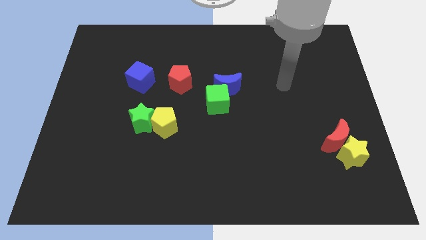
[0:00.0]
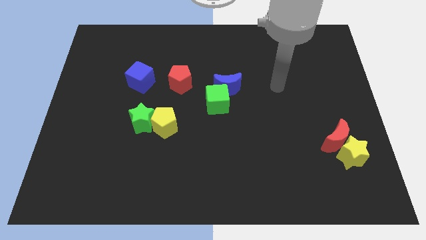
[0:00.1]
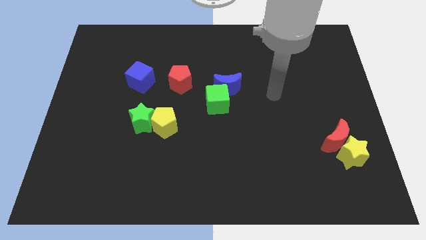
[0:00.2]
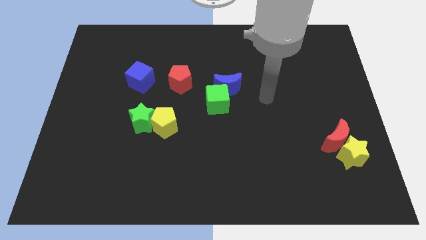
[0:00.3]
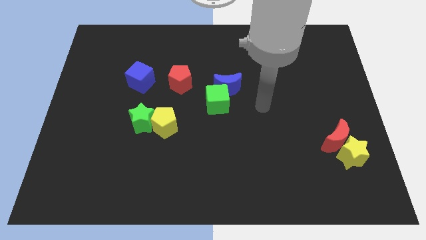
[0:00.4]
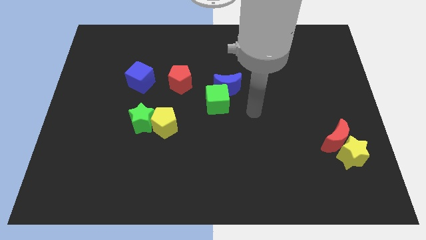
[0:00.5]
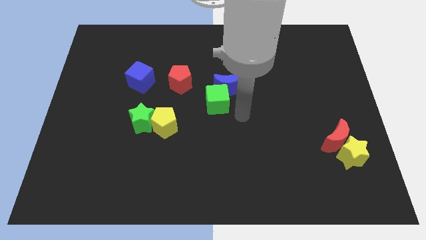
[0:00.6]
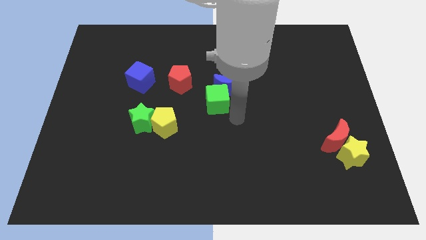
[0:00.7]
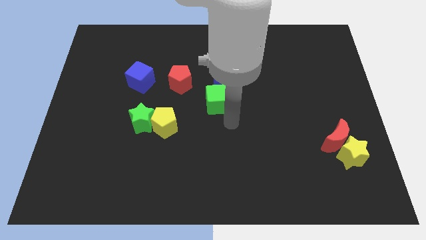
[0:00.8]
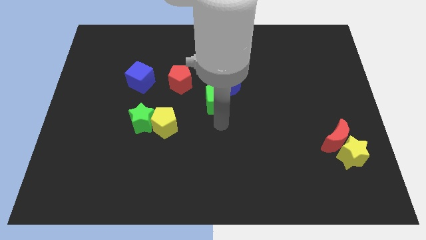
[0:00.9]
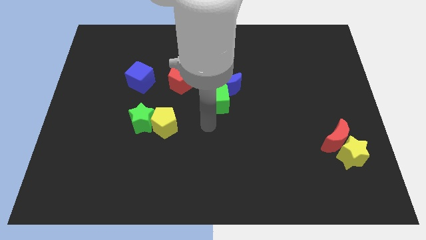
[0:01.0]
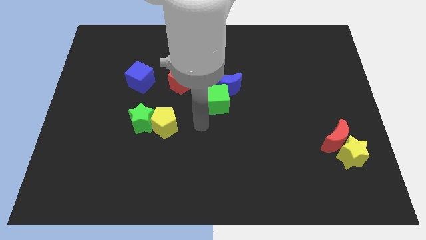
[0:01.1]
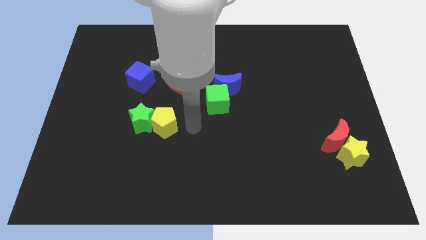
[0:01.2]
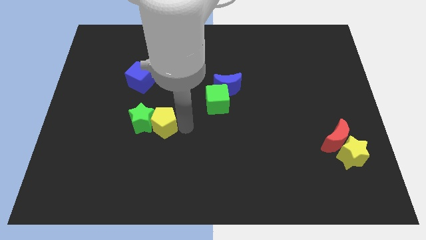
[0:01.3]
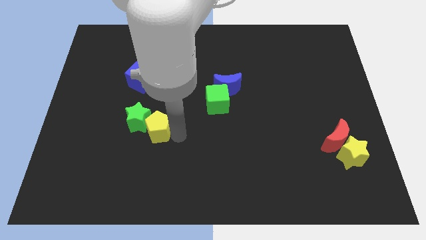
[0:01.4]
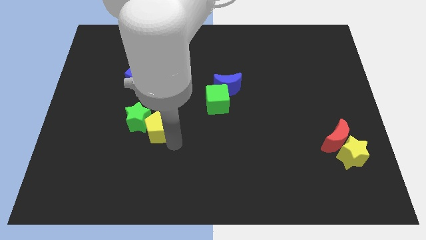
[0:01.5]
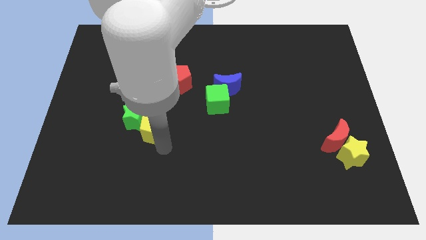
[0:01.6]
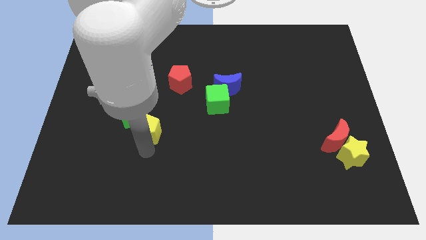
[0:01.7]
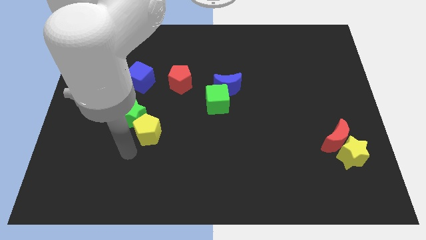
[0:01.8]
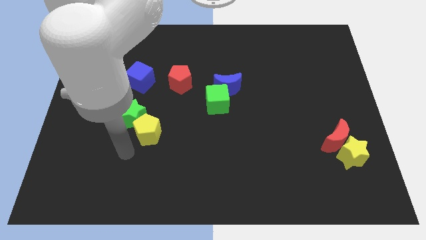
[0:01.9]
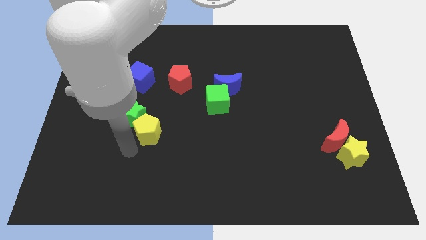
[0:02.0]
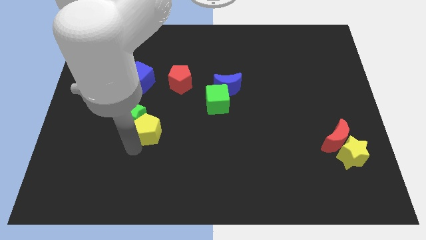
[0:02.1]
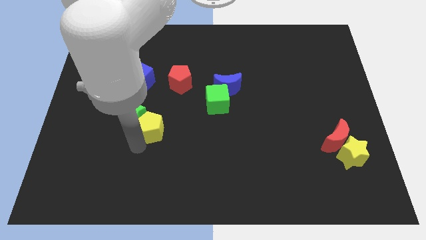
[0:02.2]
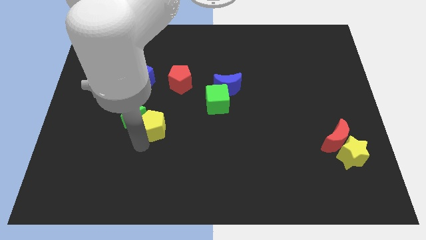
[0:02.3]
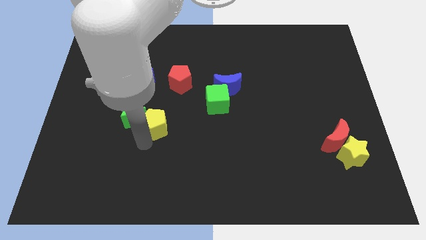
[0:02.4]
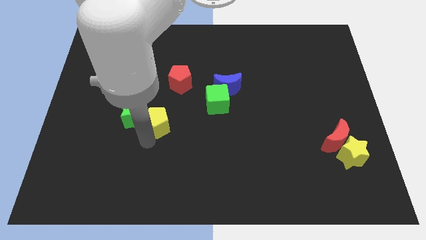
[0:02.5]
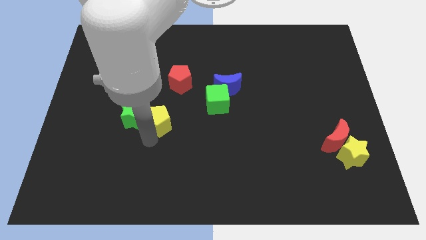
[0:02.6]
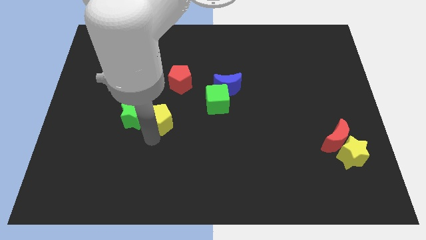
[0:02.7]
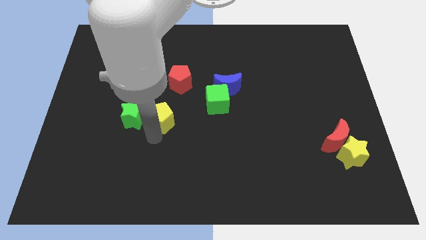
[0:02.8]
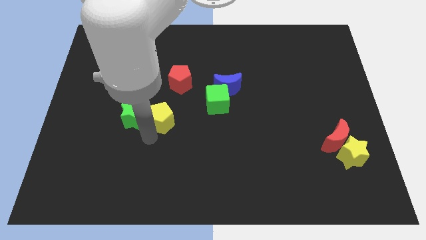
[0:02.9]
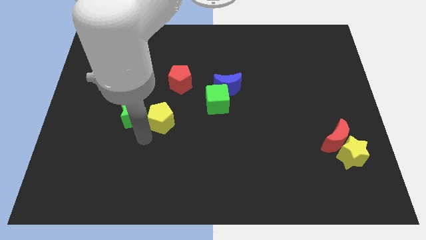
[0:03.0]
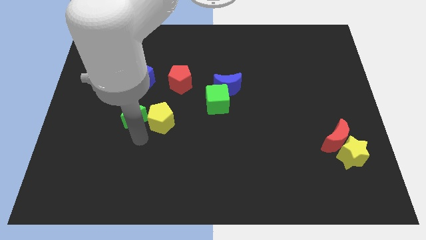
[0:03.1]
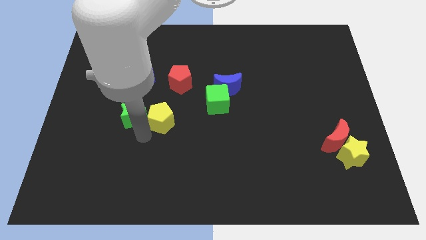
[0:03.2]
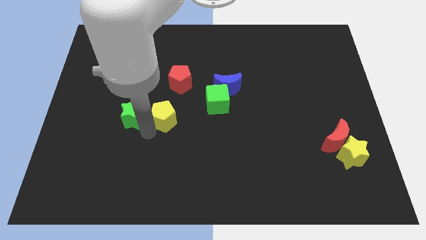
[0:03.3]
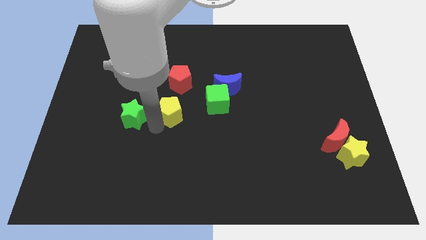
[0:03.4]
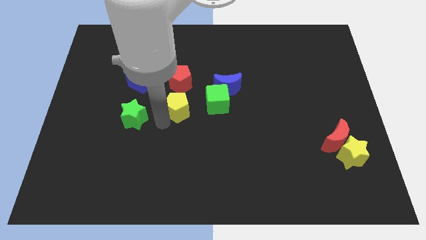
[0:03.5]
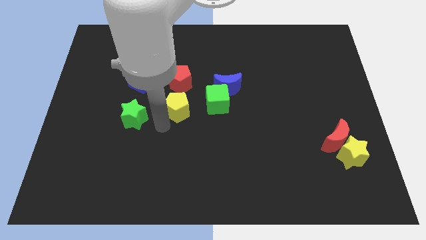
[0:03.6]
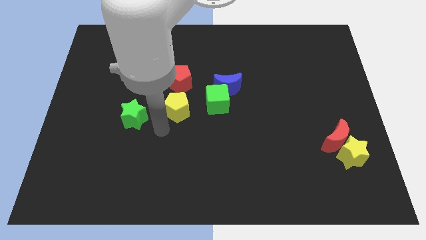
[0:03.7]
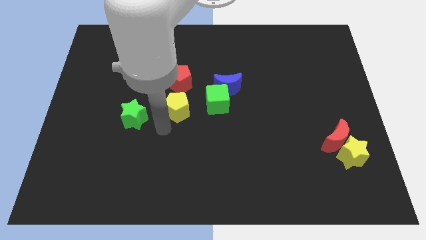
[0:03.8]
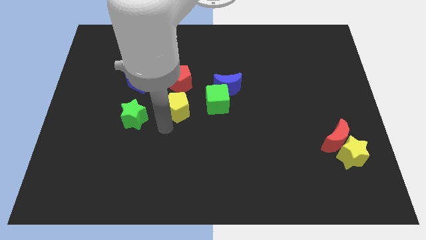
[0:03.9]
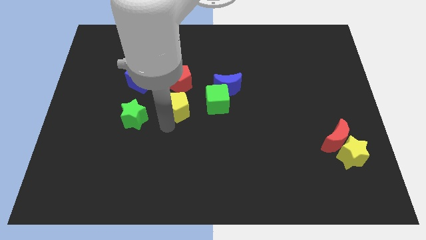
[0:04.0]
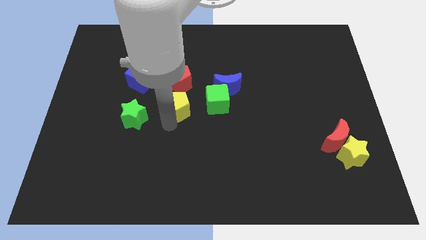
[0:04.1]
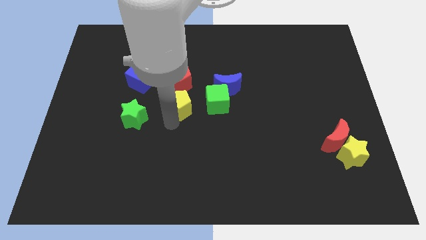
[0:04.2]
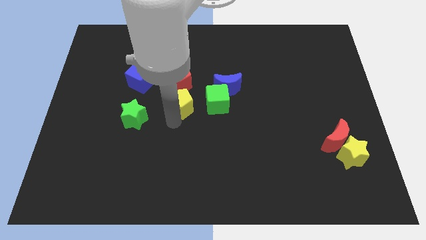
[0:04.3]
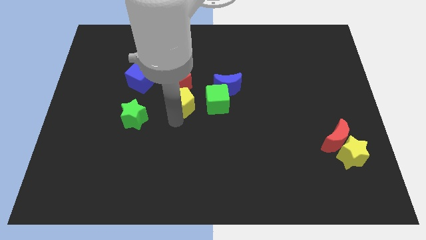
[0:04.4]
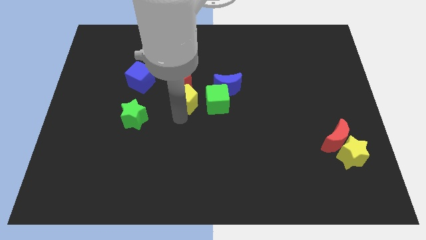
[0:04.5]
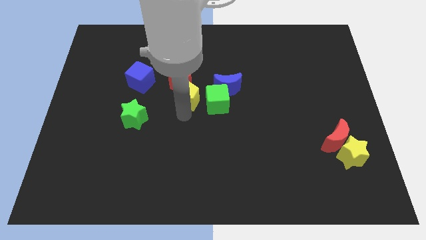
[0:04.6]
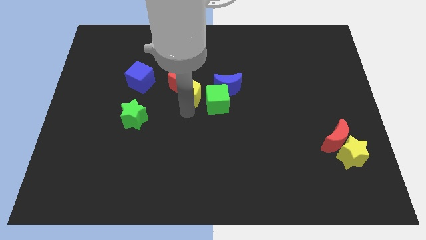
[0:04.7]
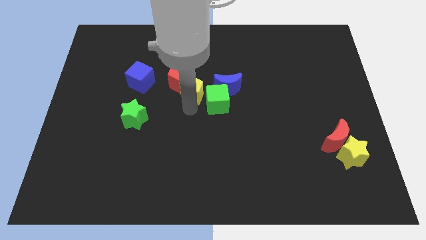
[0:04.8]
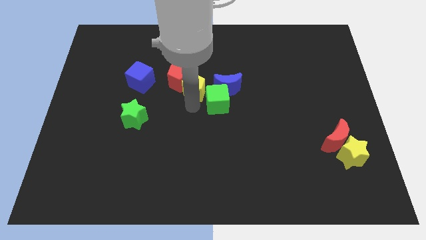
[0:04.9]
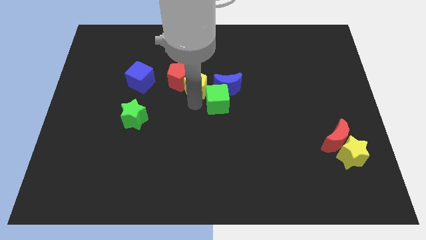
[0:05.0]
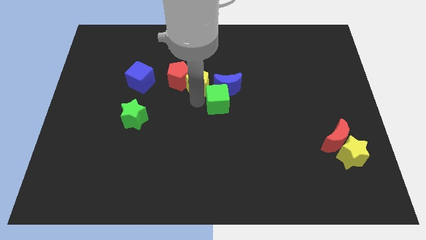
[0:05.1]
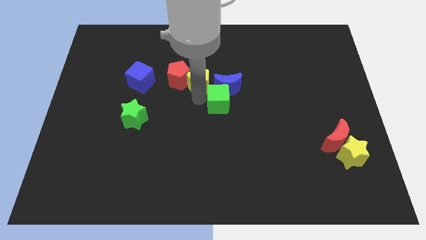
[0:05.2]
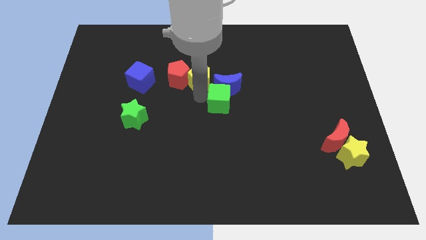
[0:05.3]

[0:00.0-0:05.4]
move the yellow pentagon to the top right of the red pentagon

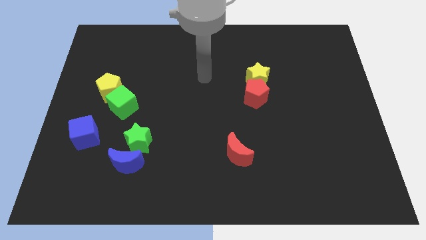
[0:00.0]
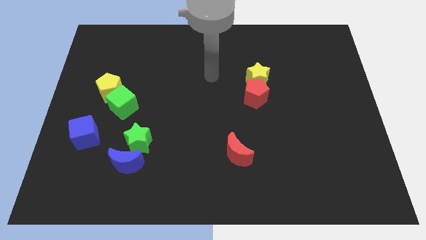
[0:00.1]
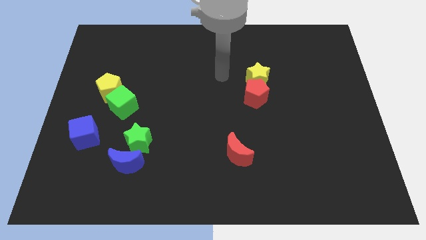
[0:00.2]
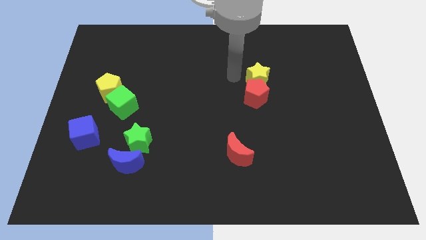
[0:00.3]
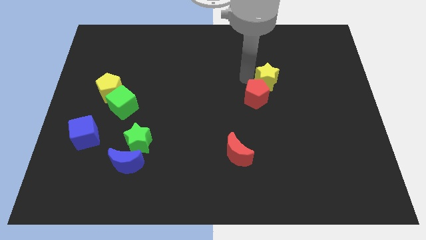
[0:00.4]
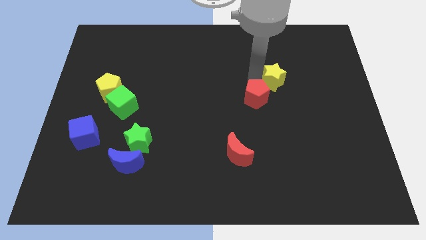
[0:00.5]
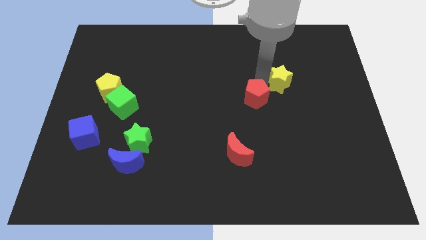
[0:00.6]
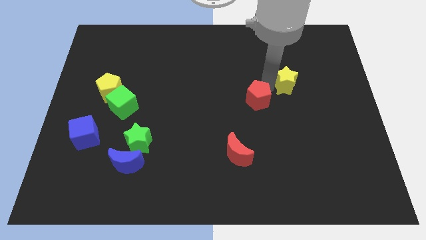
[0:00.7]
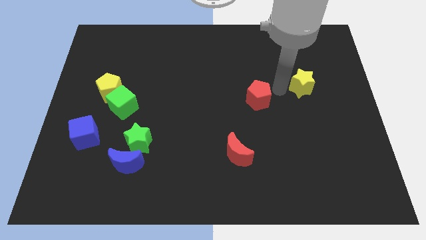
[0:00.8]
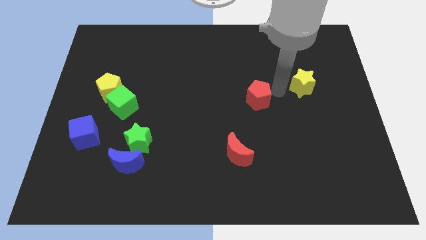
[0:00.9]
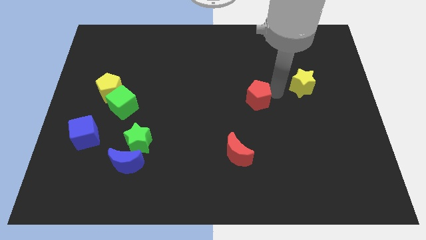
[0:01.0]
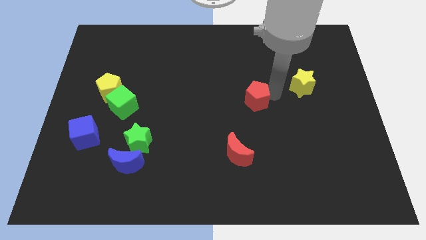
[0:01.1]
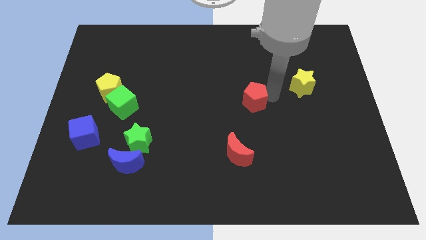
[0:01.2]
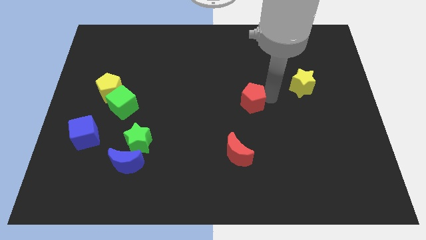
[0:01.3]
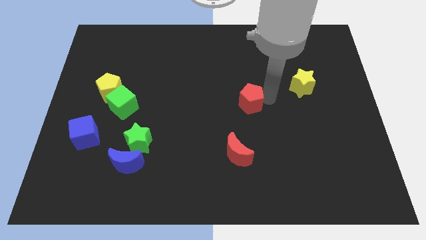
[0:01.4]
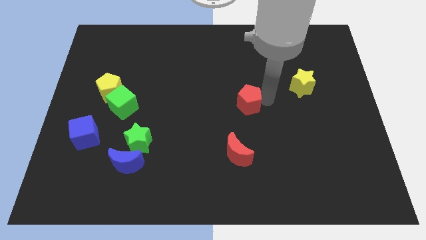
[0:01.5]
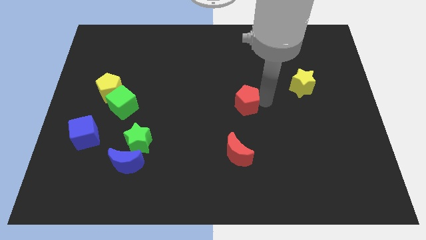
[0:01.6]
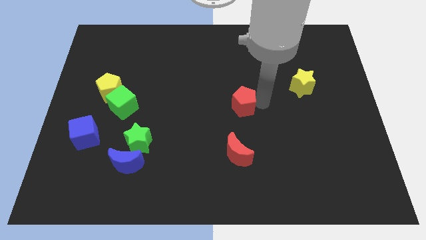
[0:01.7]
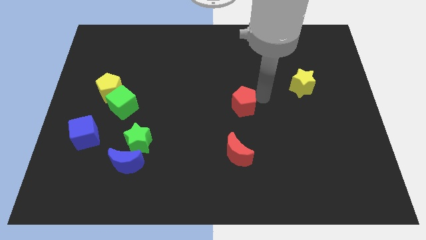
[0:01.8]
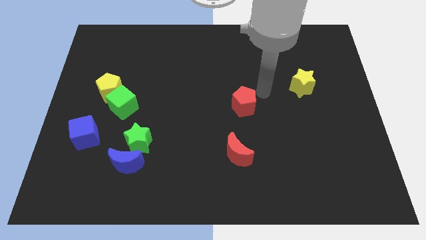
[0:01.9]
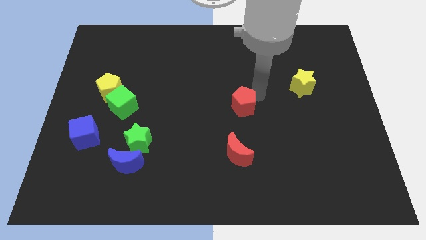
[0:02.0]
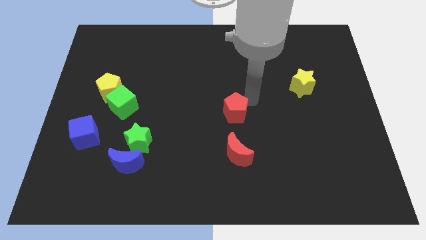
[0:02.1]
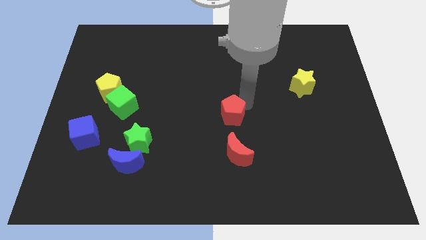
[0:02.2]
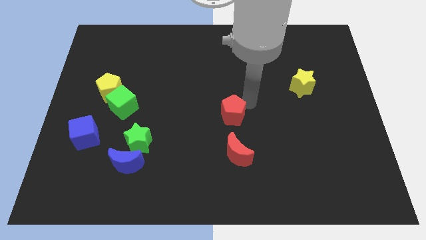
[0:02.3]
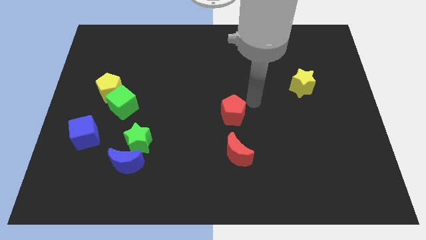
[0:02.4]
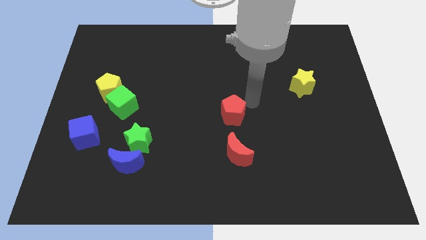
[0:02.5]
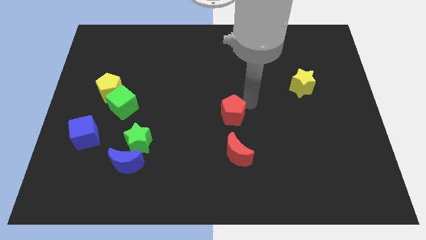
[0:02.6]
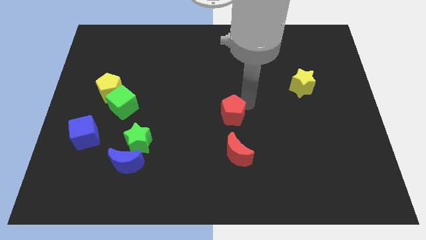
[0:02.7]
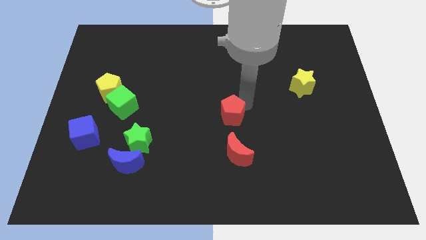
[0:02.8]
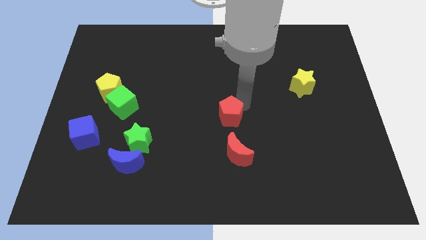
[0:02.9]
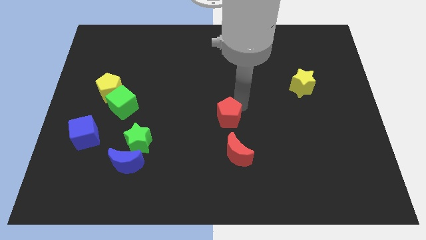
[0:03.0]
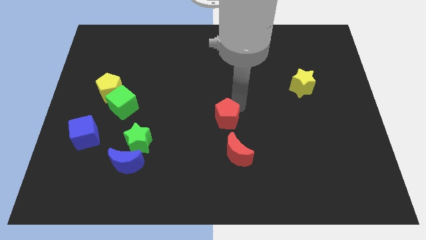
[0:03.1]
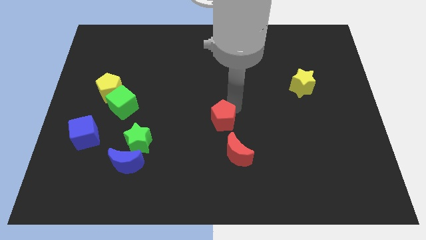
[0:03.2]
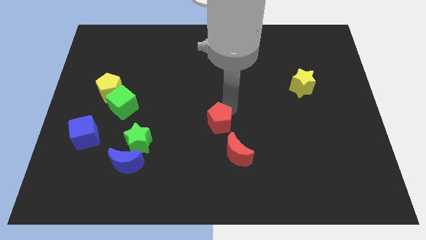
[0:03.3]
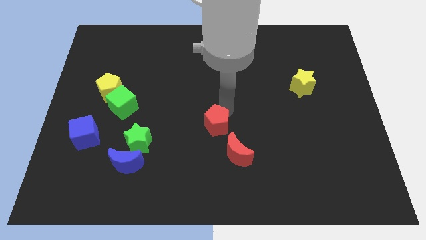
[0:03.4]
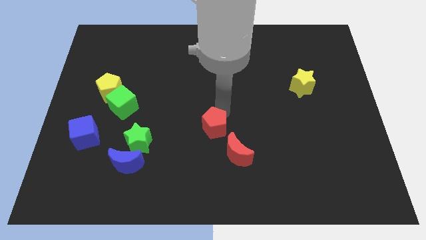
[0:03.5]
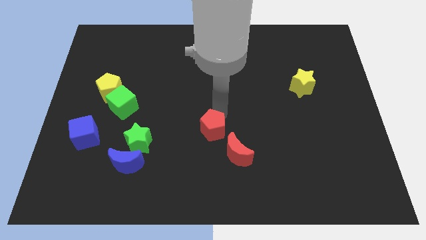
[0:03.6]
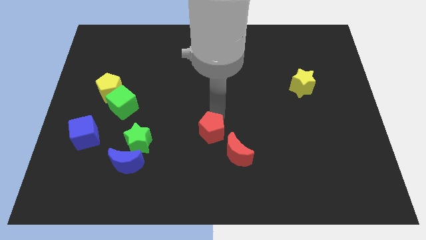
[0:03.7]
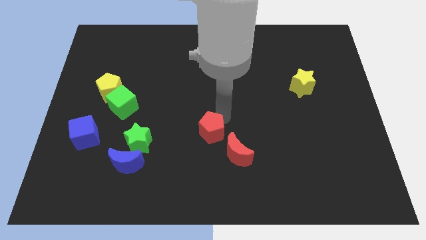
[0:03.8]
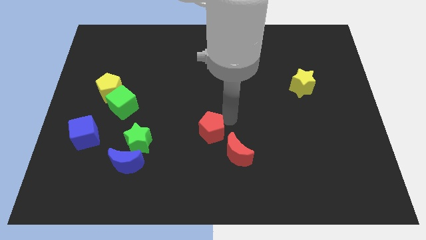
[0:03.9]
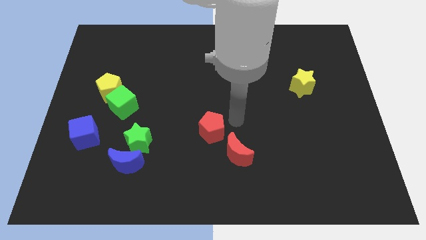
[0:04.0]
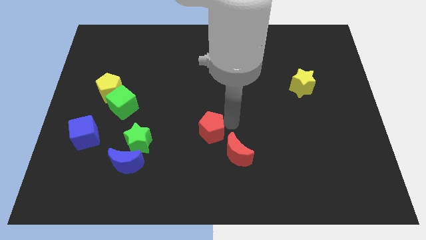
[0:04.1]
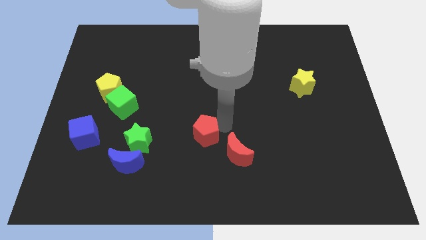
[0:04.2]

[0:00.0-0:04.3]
push the red pentagon just right of the green star
